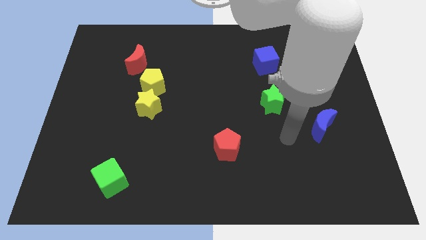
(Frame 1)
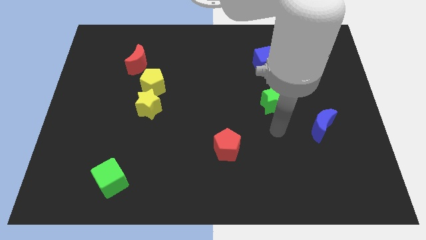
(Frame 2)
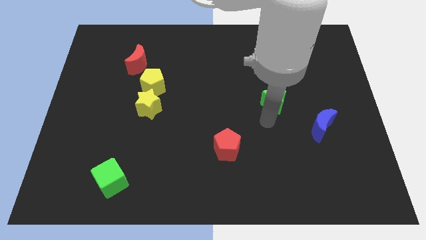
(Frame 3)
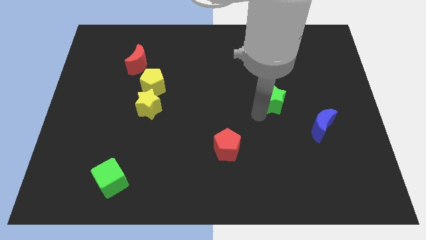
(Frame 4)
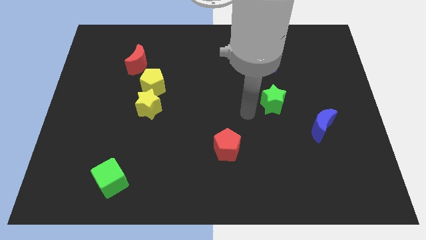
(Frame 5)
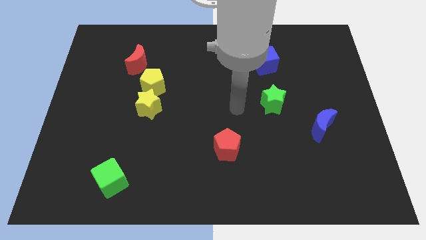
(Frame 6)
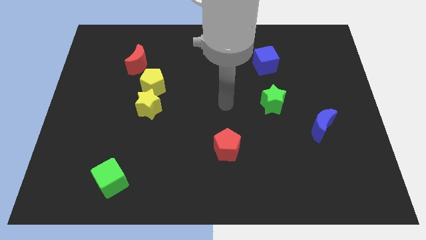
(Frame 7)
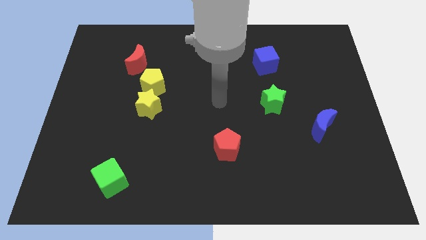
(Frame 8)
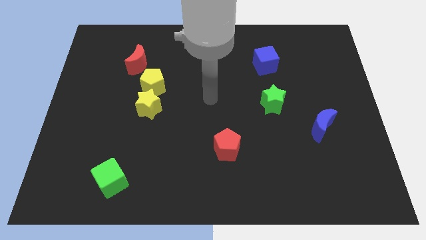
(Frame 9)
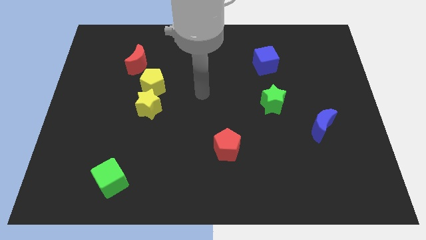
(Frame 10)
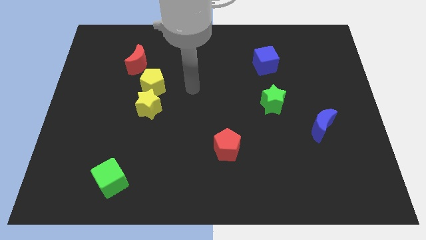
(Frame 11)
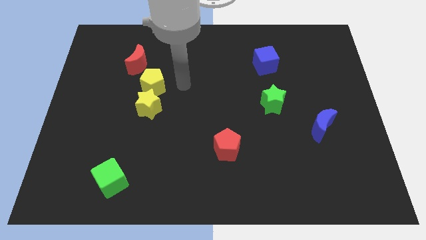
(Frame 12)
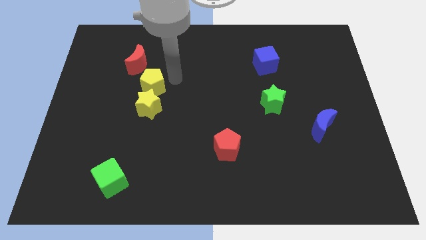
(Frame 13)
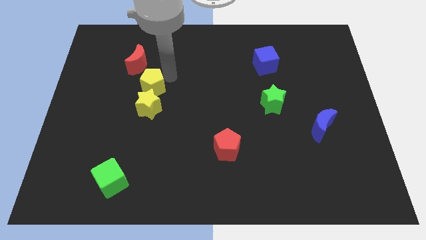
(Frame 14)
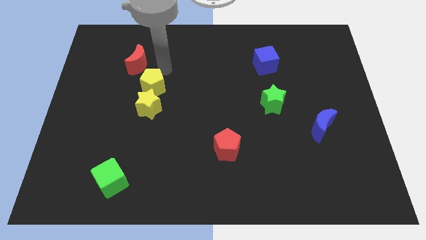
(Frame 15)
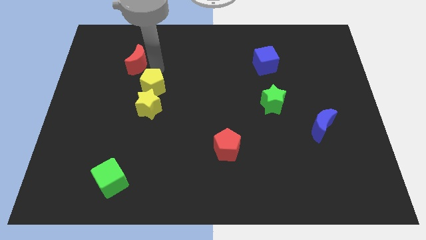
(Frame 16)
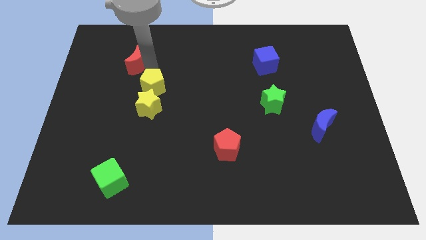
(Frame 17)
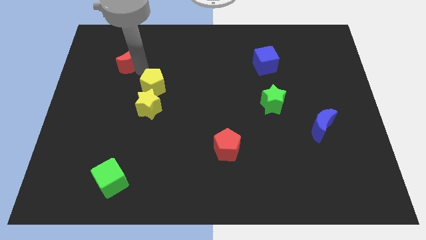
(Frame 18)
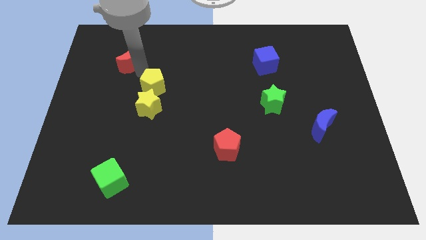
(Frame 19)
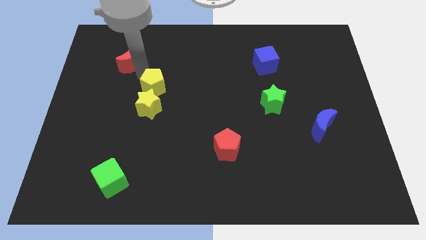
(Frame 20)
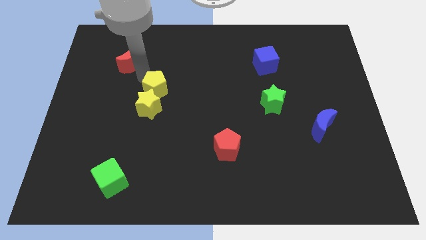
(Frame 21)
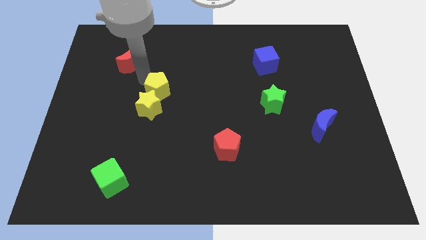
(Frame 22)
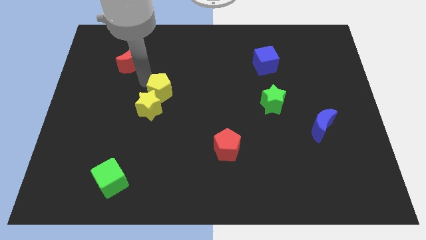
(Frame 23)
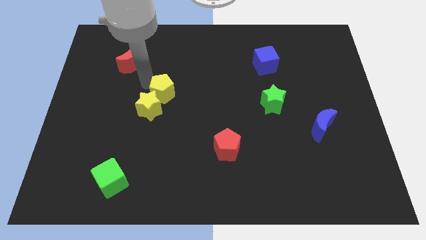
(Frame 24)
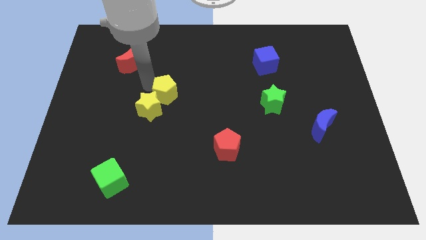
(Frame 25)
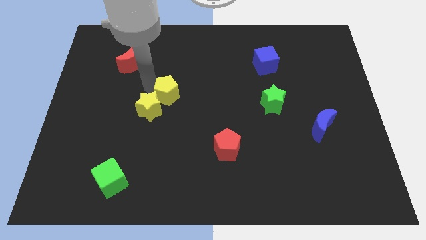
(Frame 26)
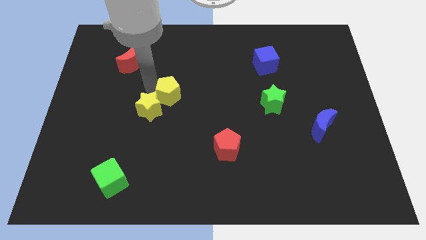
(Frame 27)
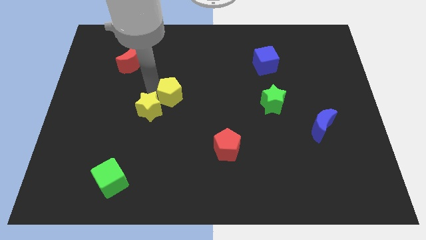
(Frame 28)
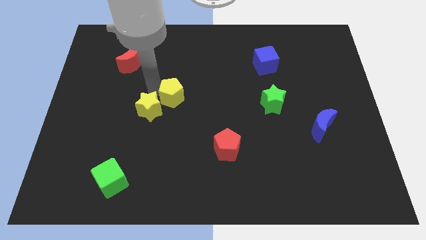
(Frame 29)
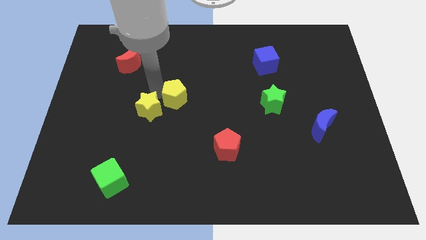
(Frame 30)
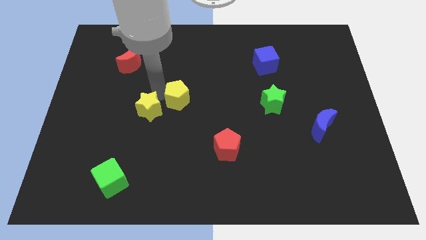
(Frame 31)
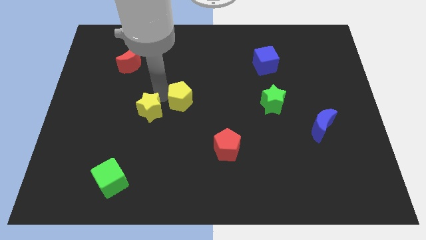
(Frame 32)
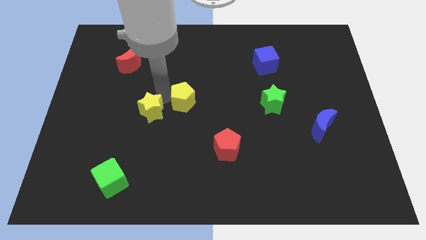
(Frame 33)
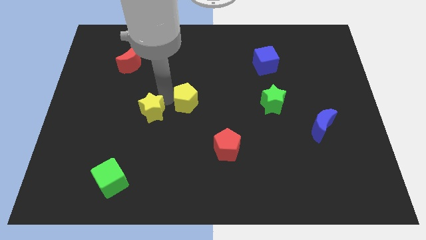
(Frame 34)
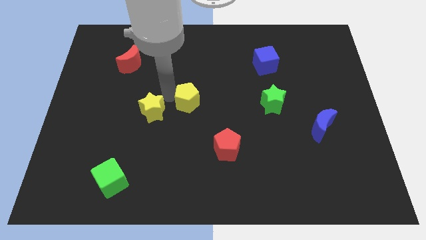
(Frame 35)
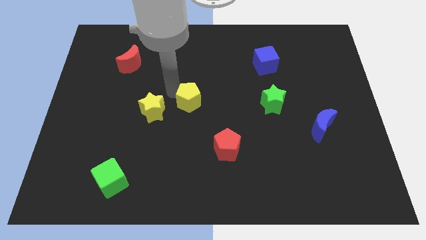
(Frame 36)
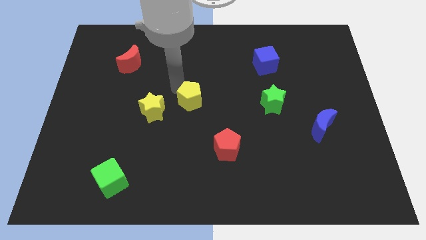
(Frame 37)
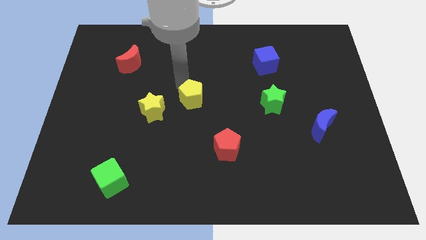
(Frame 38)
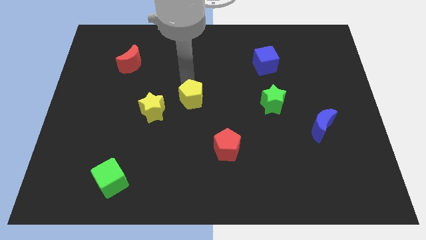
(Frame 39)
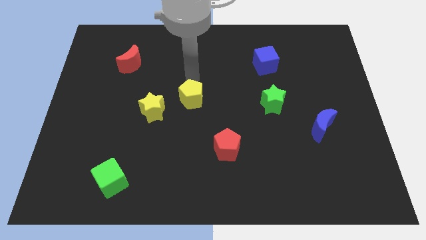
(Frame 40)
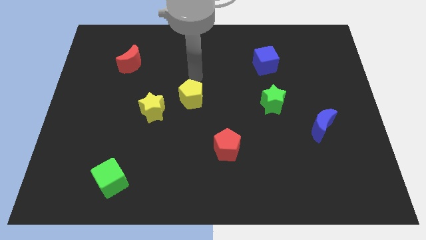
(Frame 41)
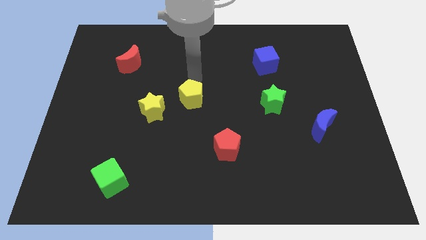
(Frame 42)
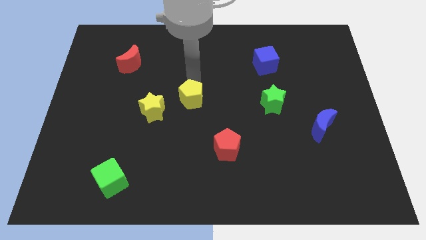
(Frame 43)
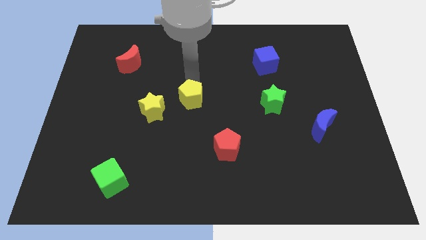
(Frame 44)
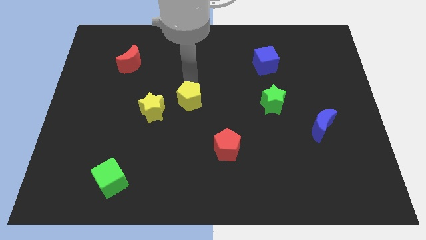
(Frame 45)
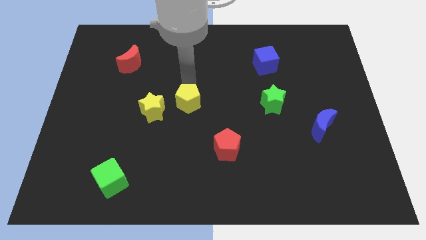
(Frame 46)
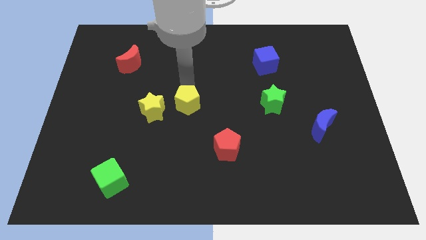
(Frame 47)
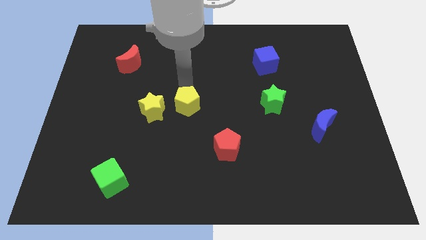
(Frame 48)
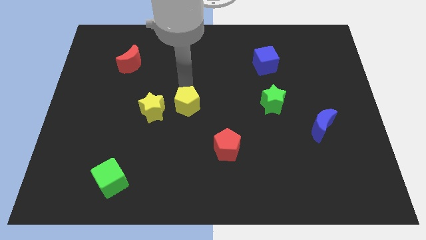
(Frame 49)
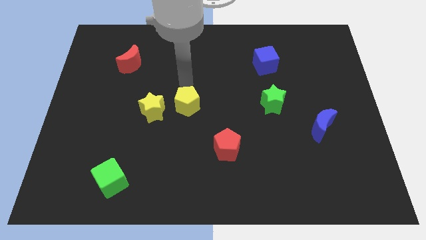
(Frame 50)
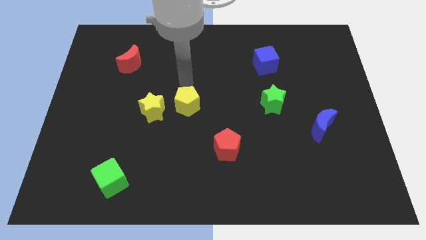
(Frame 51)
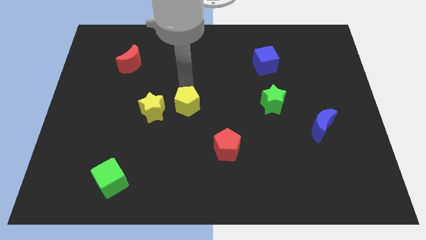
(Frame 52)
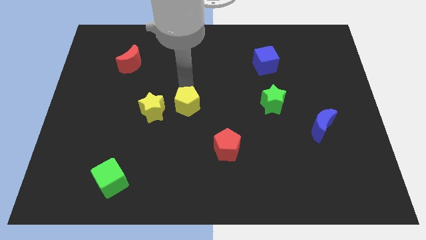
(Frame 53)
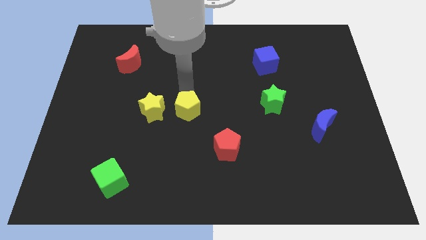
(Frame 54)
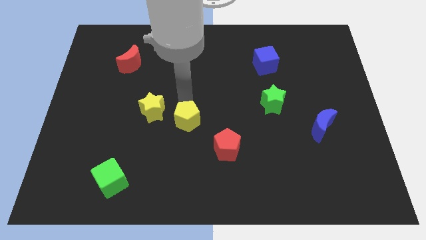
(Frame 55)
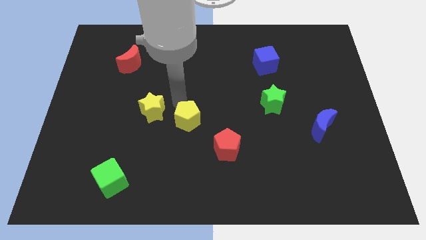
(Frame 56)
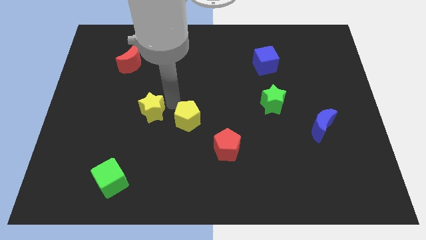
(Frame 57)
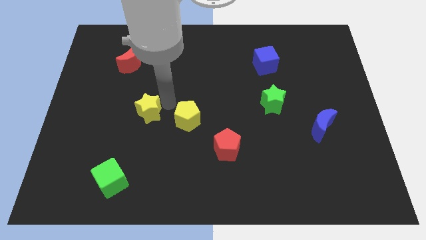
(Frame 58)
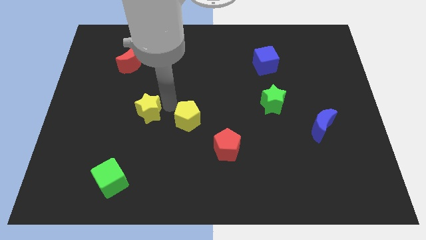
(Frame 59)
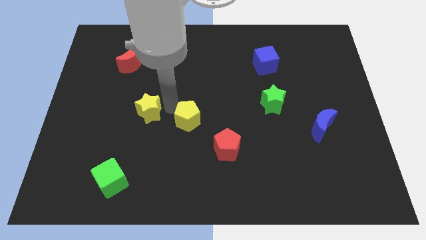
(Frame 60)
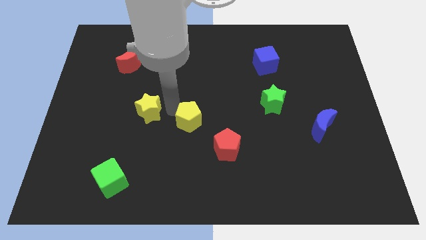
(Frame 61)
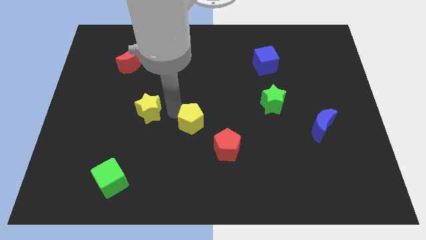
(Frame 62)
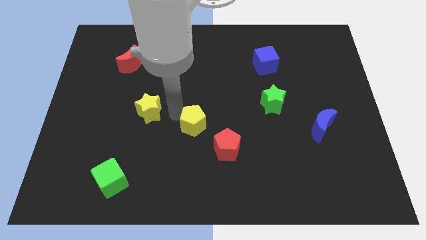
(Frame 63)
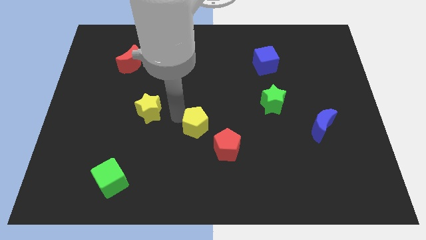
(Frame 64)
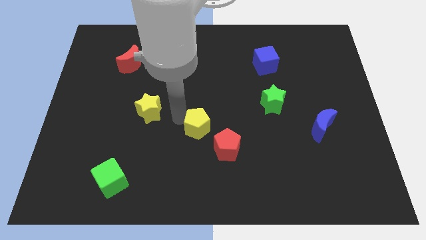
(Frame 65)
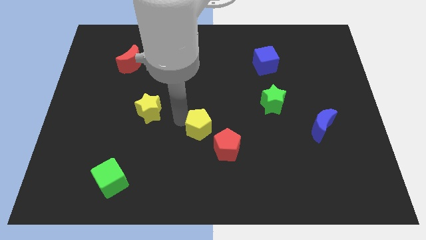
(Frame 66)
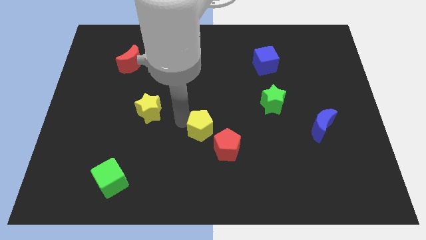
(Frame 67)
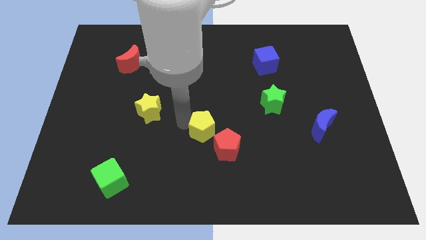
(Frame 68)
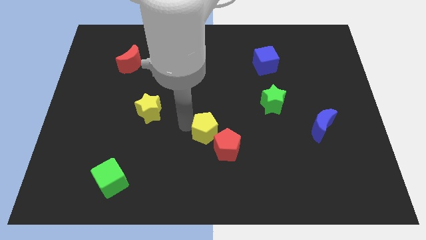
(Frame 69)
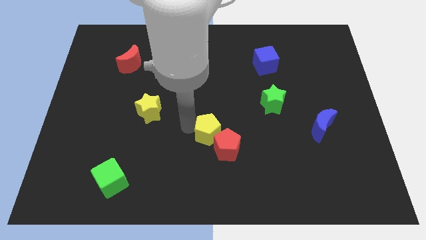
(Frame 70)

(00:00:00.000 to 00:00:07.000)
put the yellow pentagon towards the red pentagon
